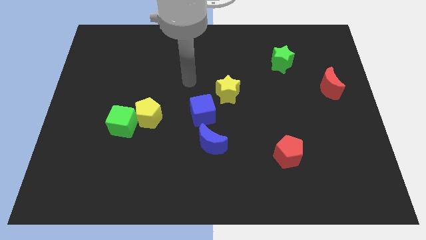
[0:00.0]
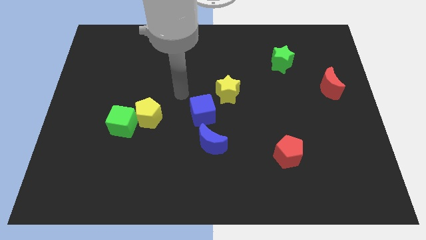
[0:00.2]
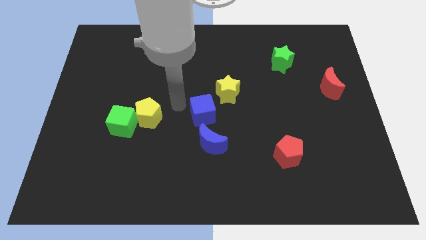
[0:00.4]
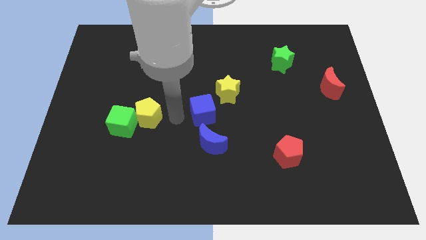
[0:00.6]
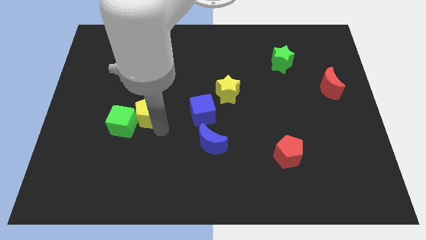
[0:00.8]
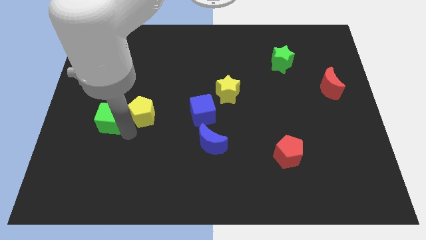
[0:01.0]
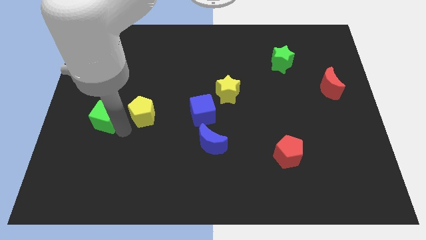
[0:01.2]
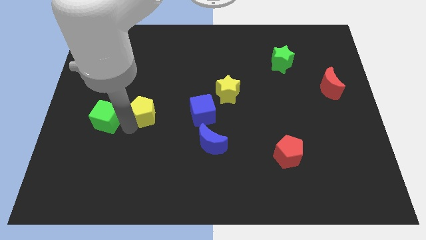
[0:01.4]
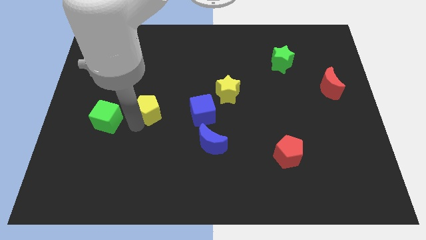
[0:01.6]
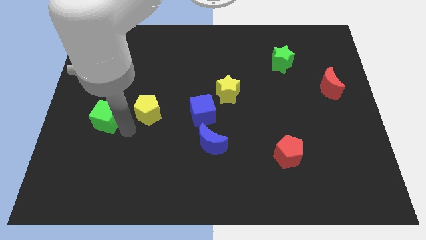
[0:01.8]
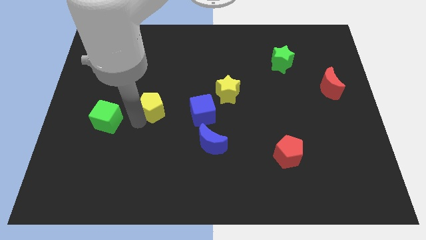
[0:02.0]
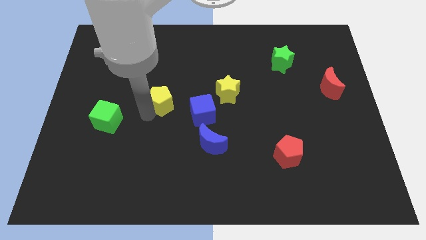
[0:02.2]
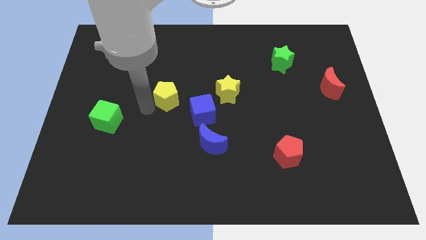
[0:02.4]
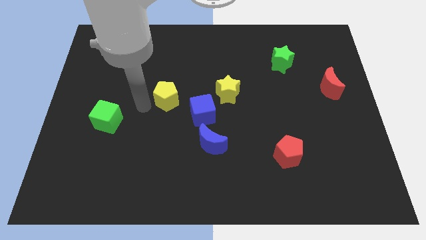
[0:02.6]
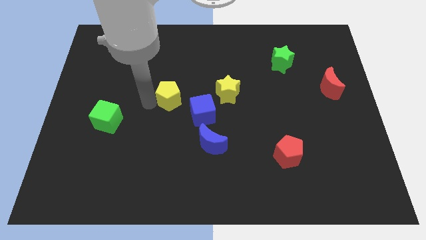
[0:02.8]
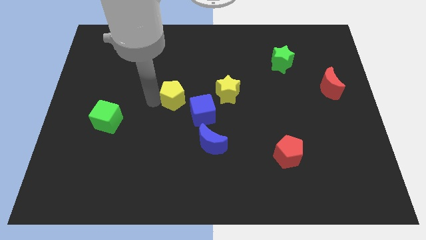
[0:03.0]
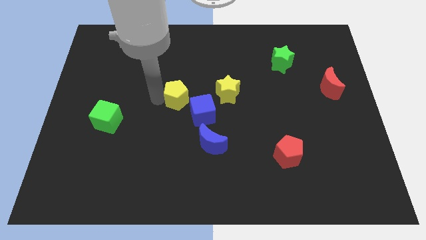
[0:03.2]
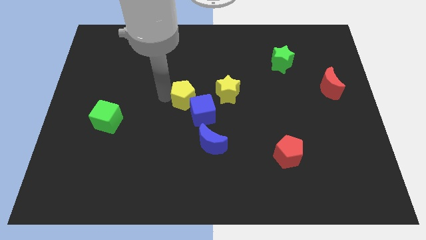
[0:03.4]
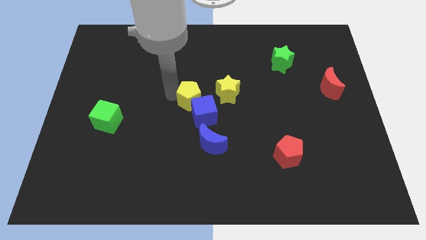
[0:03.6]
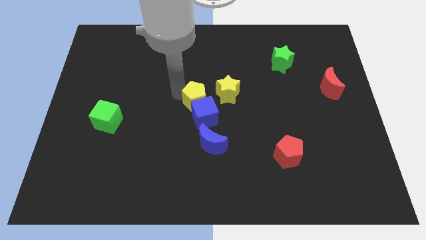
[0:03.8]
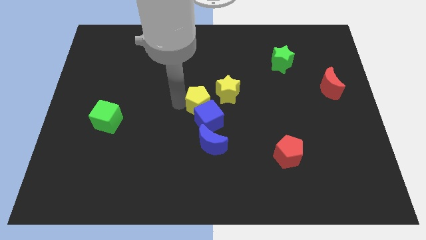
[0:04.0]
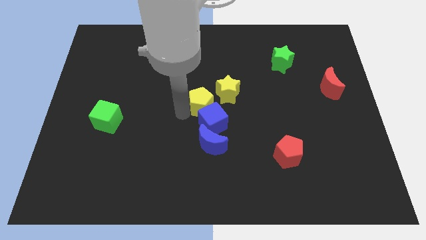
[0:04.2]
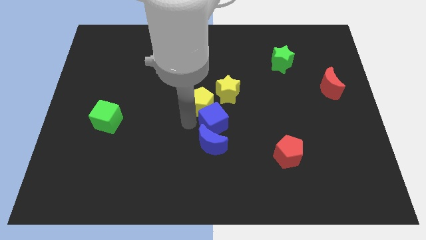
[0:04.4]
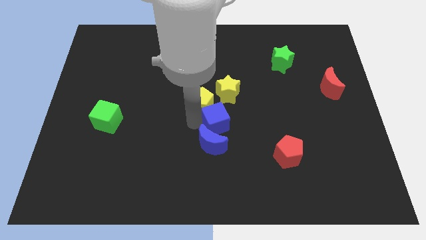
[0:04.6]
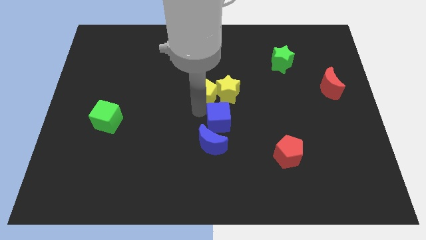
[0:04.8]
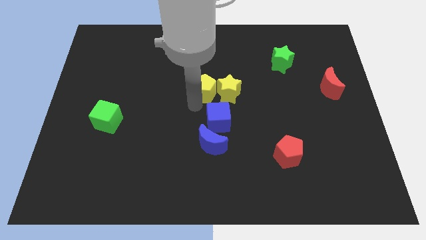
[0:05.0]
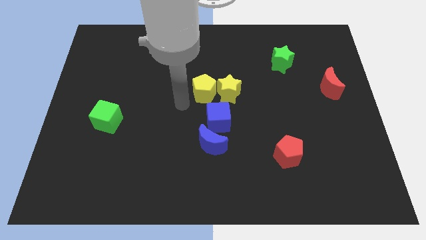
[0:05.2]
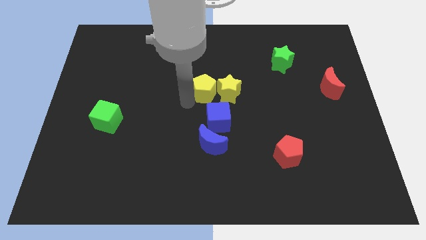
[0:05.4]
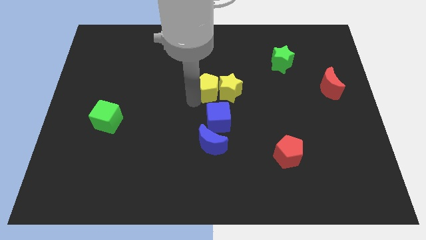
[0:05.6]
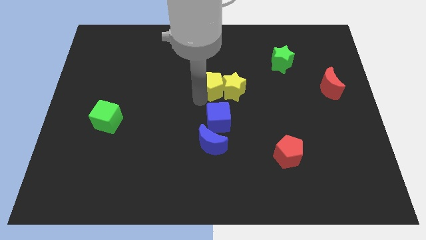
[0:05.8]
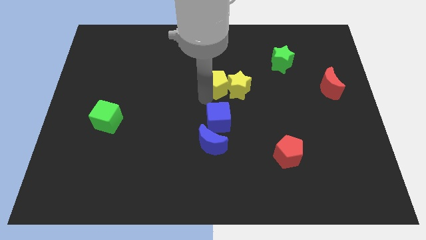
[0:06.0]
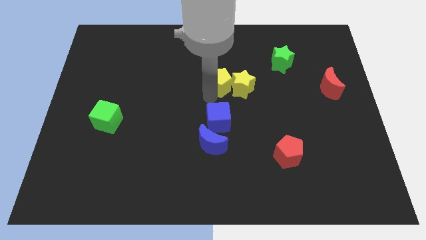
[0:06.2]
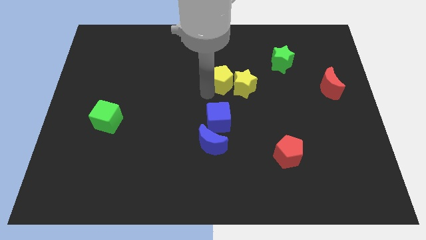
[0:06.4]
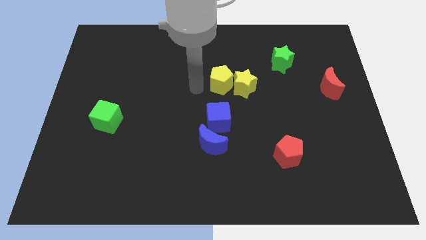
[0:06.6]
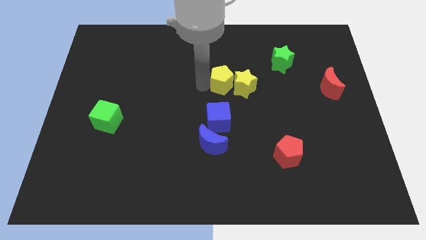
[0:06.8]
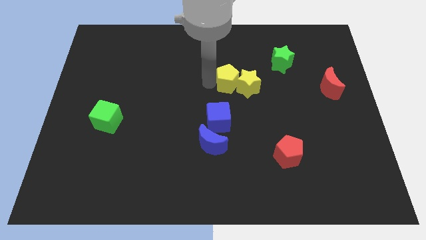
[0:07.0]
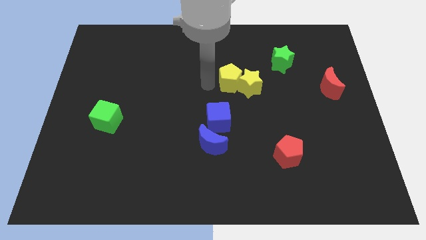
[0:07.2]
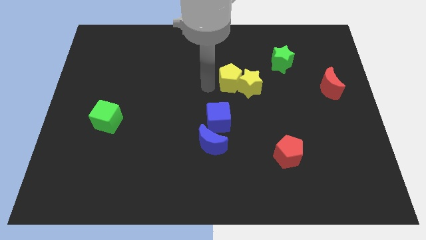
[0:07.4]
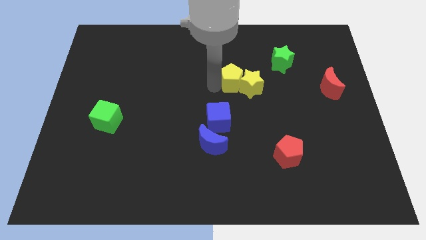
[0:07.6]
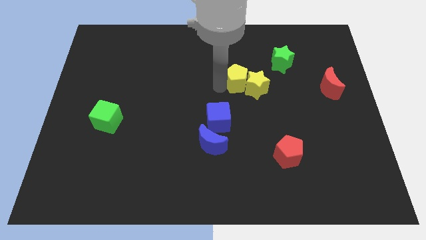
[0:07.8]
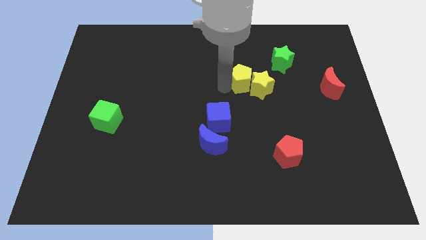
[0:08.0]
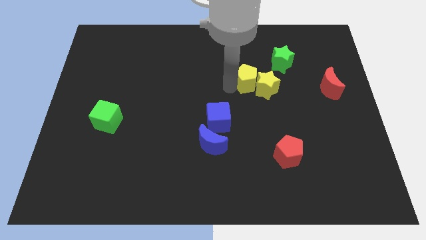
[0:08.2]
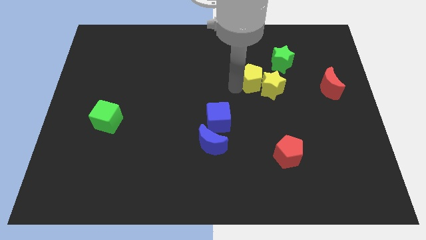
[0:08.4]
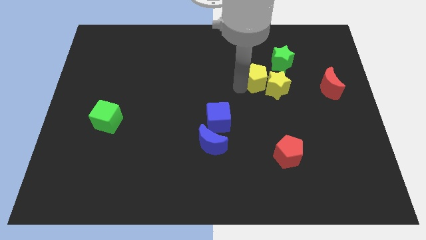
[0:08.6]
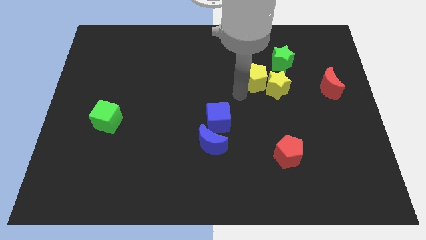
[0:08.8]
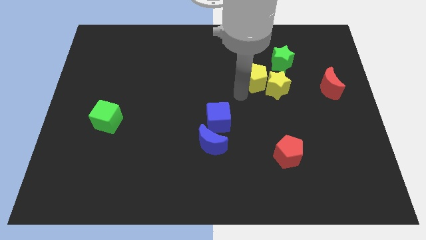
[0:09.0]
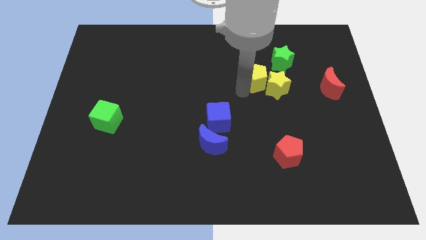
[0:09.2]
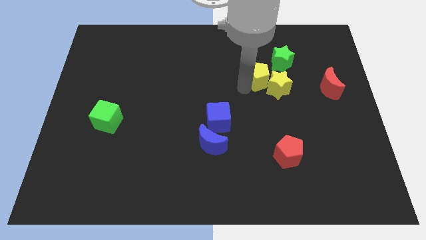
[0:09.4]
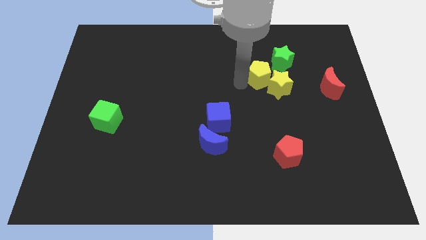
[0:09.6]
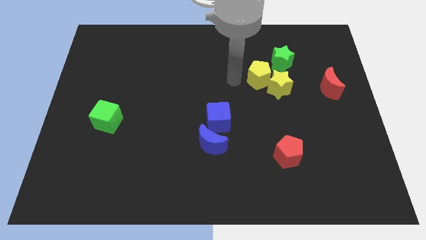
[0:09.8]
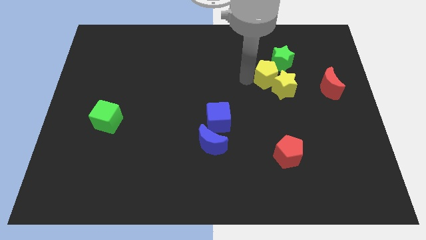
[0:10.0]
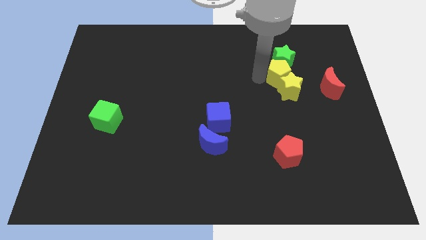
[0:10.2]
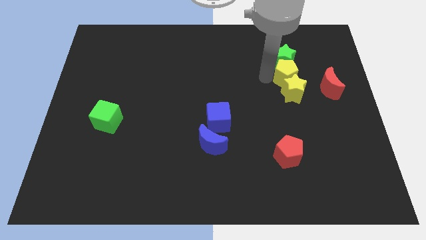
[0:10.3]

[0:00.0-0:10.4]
move the yellow pentagon to the top left of the red moon

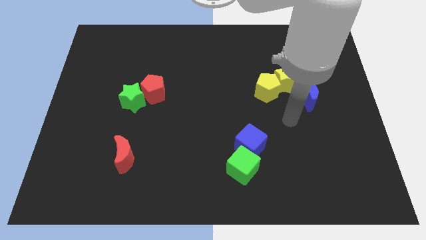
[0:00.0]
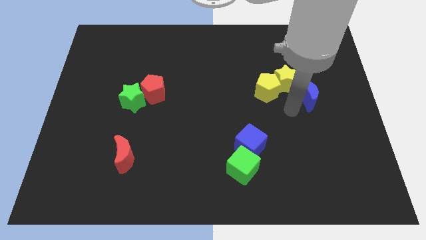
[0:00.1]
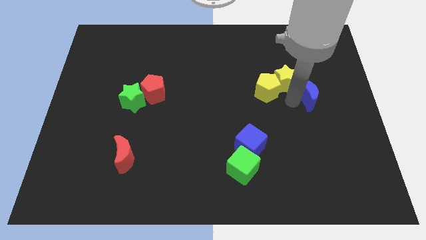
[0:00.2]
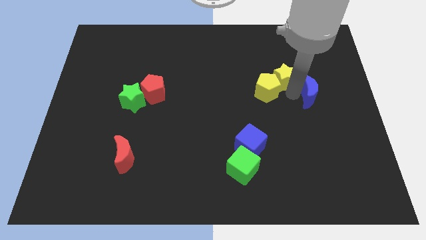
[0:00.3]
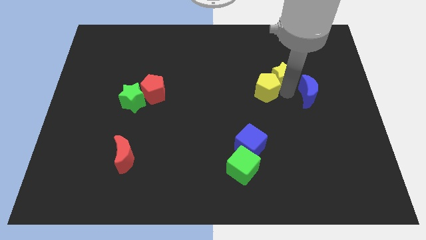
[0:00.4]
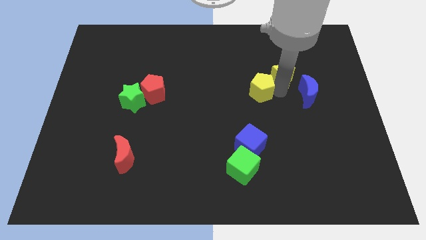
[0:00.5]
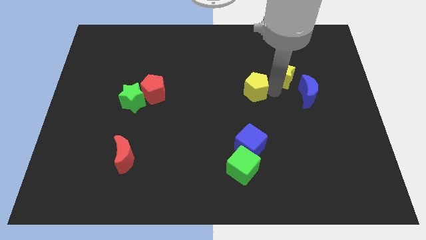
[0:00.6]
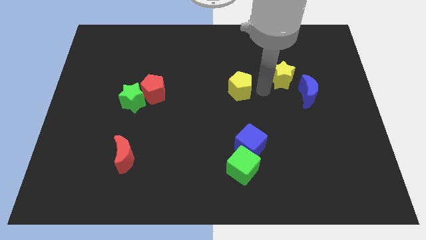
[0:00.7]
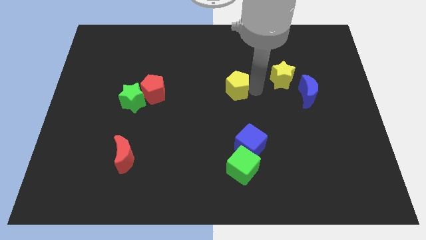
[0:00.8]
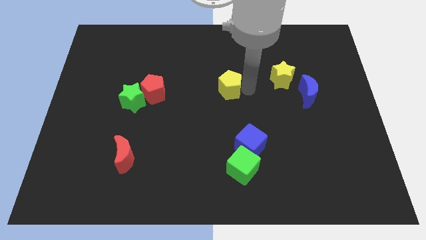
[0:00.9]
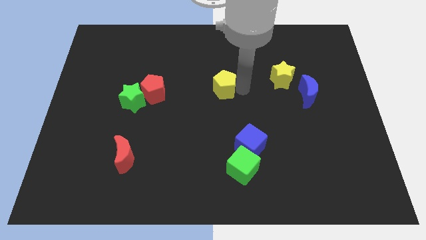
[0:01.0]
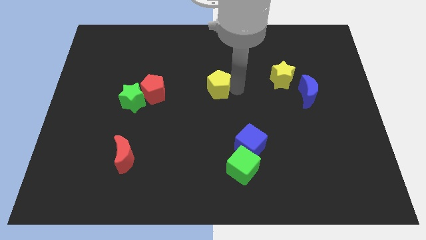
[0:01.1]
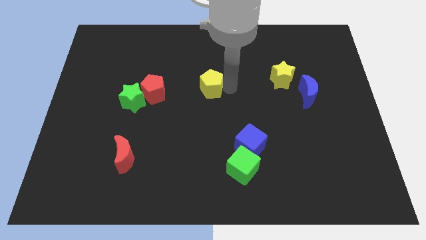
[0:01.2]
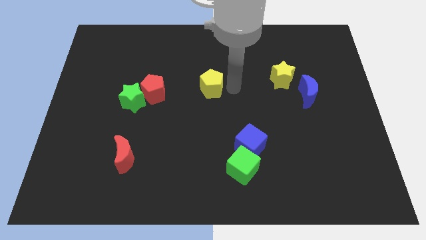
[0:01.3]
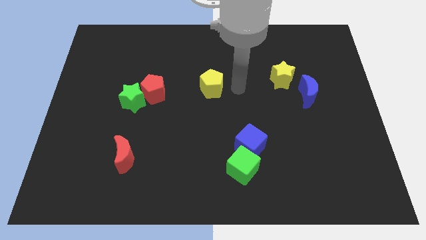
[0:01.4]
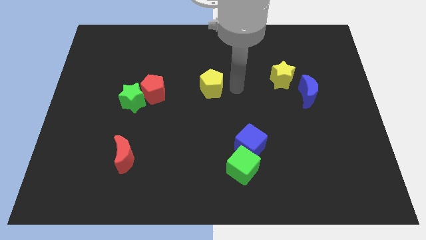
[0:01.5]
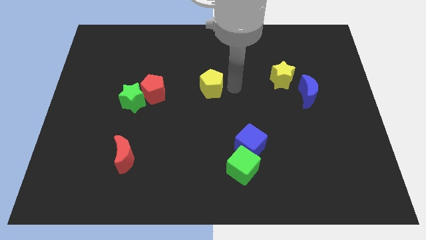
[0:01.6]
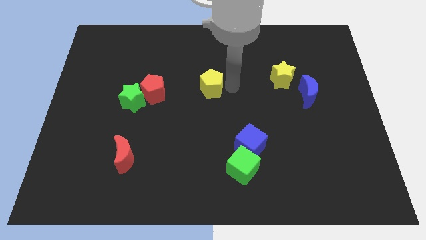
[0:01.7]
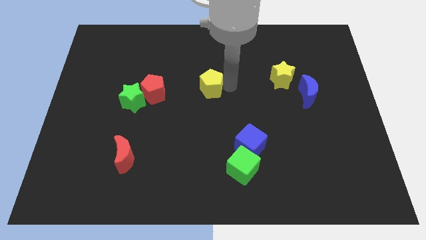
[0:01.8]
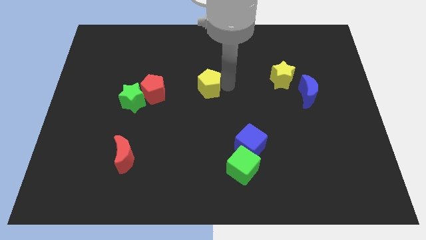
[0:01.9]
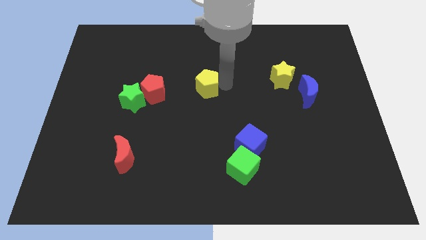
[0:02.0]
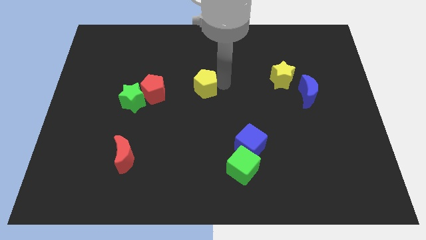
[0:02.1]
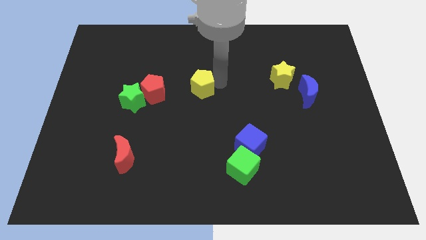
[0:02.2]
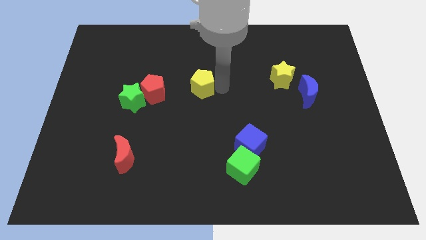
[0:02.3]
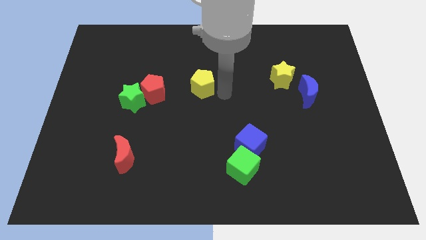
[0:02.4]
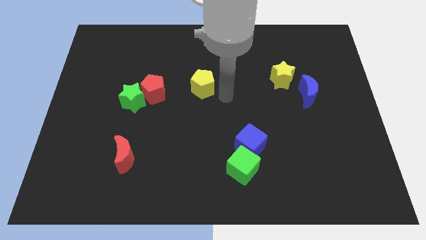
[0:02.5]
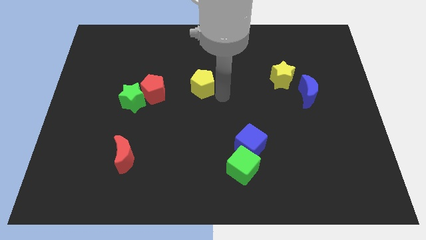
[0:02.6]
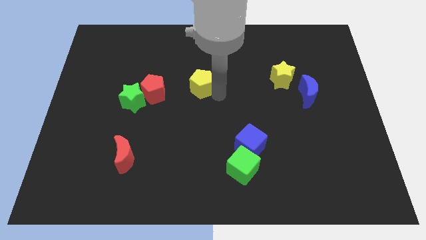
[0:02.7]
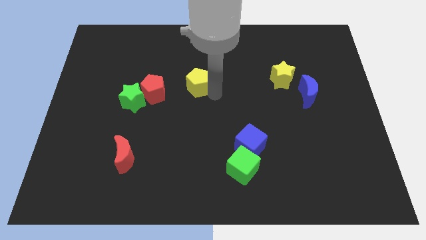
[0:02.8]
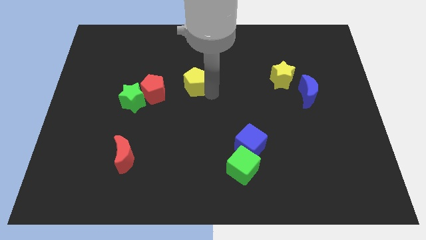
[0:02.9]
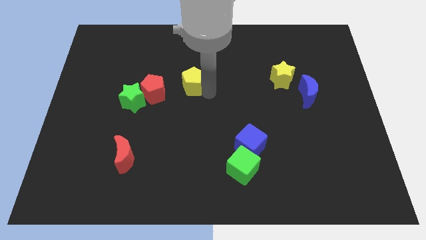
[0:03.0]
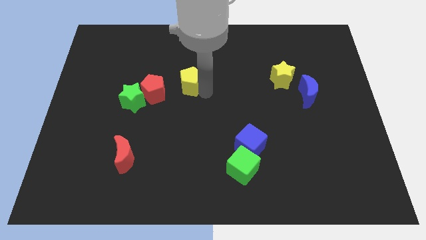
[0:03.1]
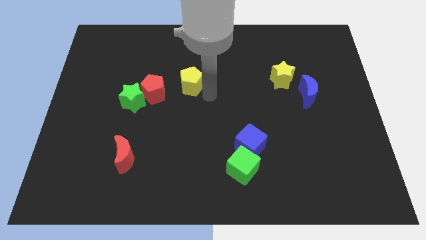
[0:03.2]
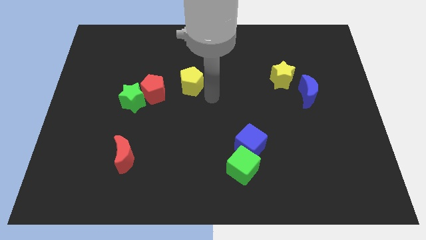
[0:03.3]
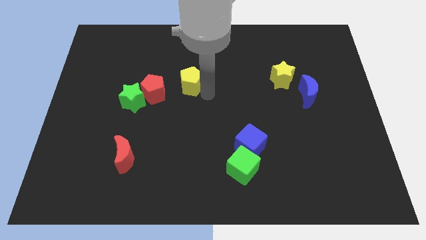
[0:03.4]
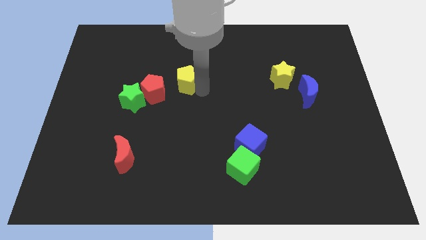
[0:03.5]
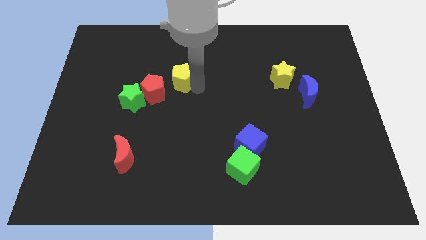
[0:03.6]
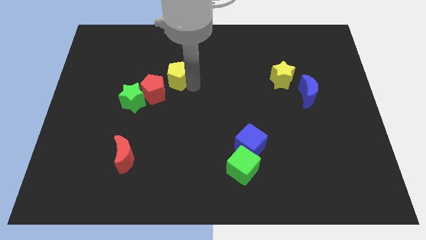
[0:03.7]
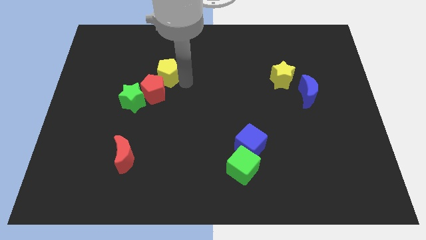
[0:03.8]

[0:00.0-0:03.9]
slide the yellow pentagon above the red pentagon
